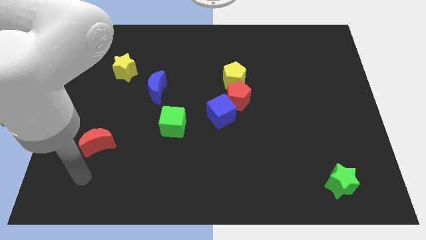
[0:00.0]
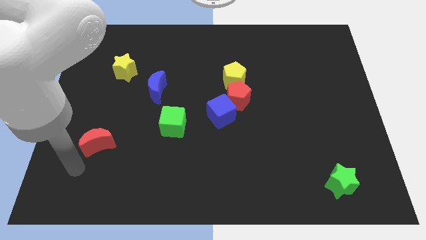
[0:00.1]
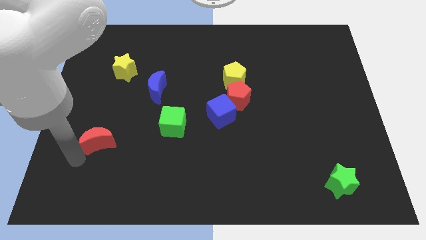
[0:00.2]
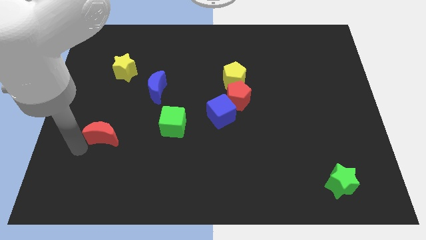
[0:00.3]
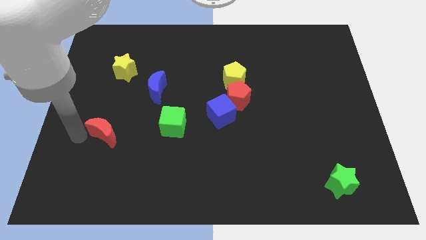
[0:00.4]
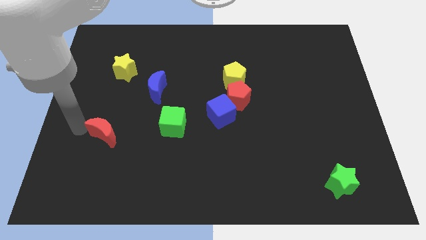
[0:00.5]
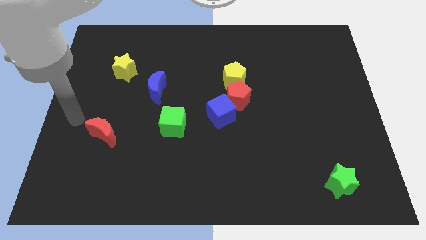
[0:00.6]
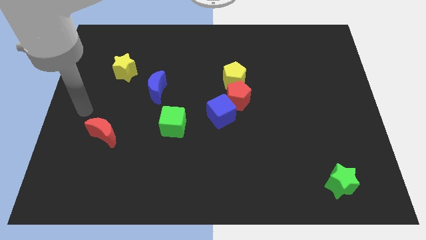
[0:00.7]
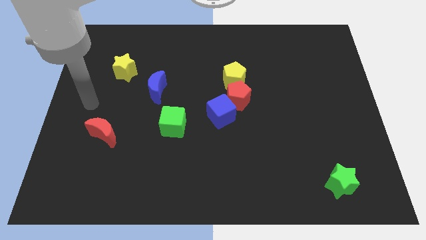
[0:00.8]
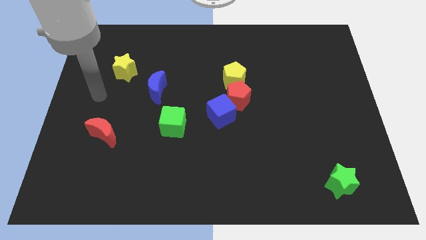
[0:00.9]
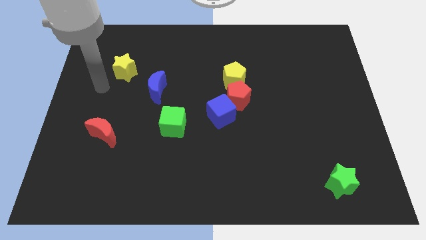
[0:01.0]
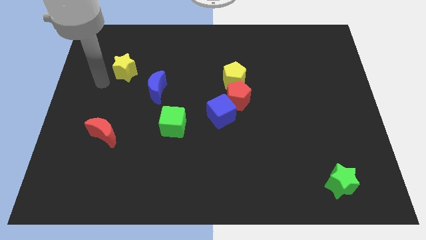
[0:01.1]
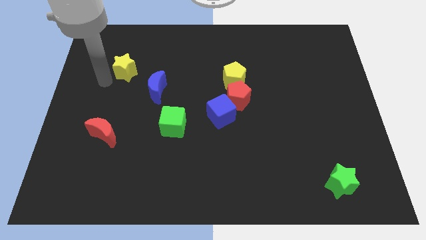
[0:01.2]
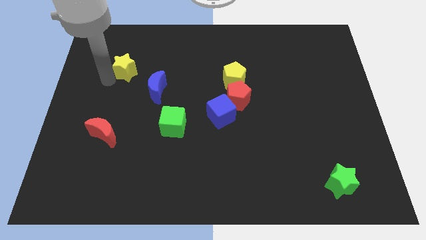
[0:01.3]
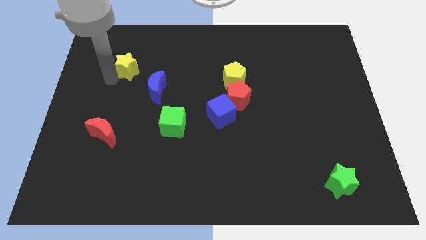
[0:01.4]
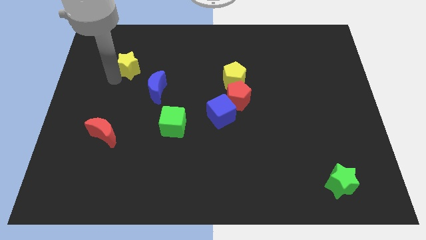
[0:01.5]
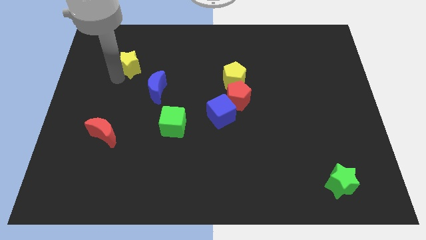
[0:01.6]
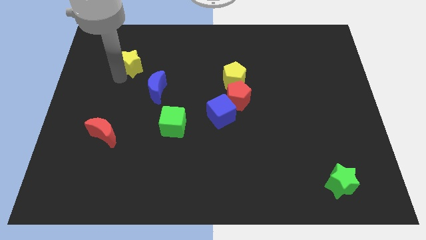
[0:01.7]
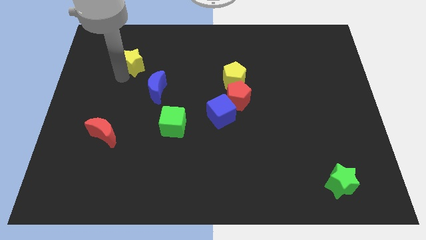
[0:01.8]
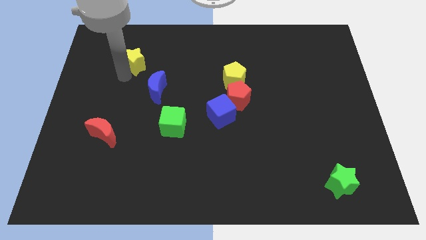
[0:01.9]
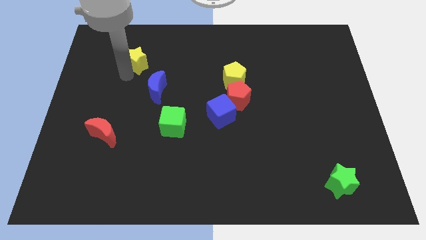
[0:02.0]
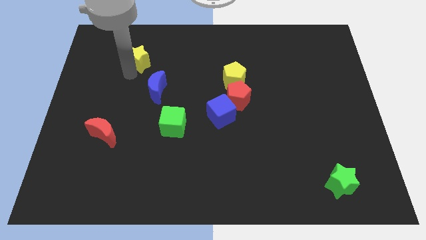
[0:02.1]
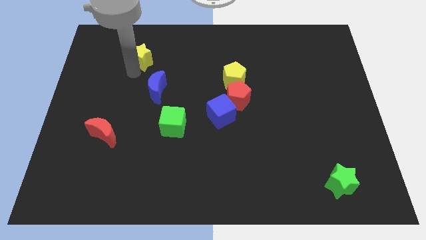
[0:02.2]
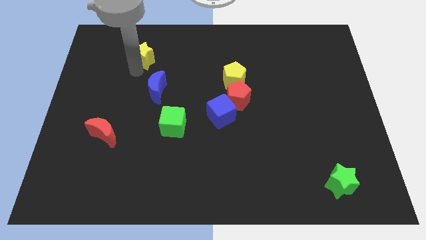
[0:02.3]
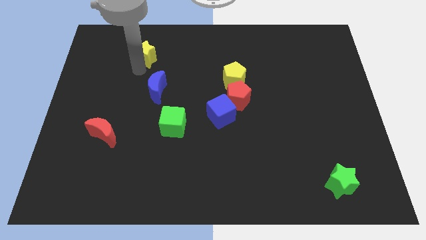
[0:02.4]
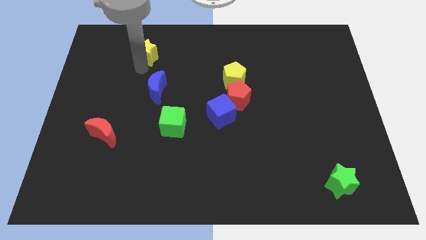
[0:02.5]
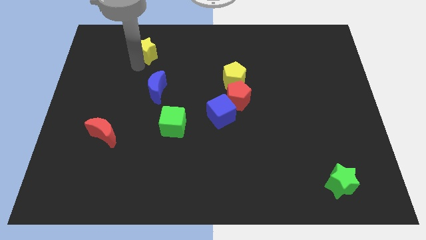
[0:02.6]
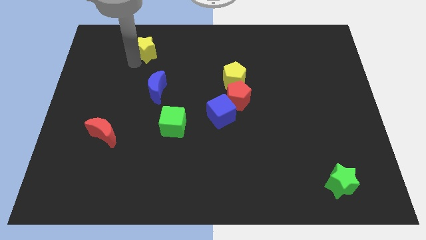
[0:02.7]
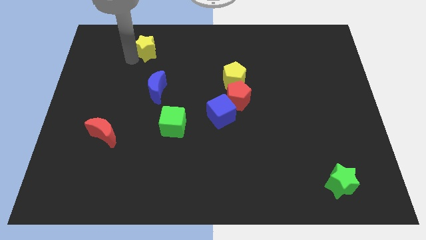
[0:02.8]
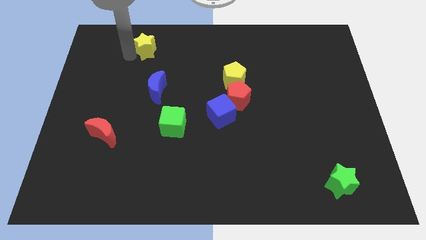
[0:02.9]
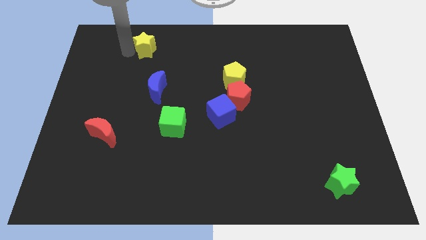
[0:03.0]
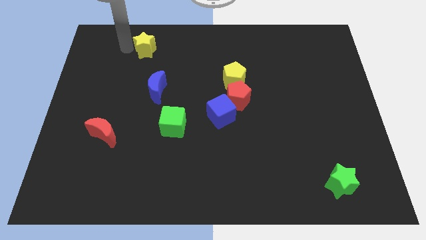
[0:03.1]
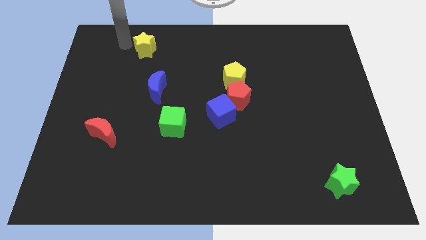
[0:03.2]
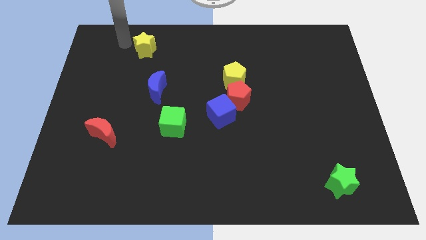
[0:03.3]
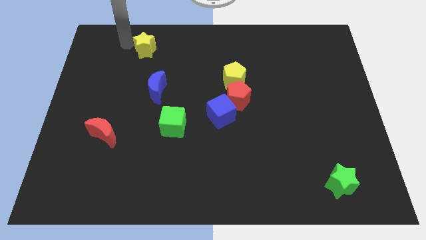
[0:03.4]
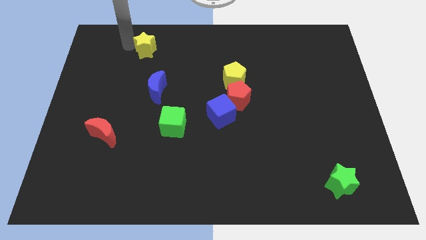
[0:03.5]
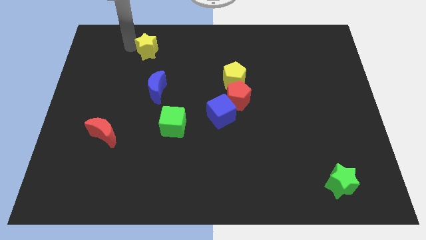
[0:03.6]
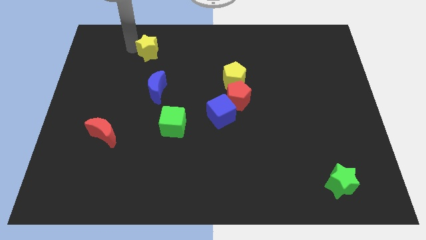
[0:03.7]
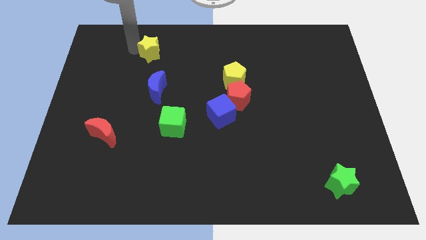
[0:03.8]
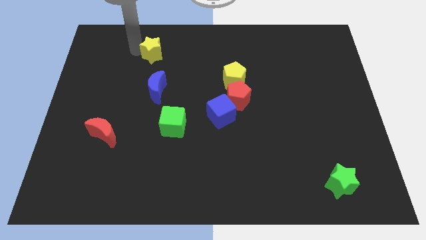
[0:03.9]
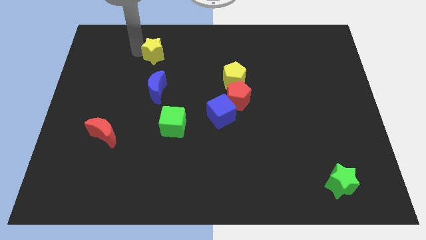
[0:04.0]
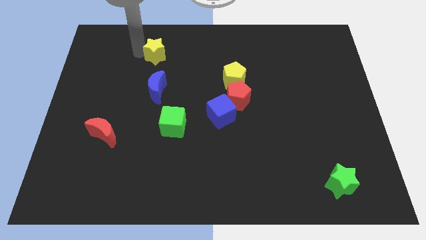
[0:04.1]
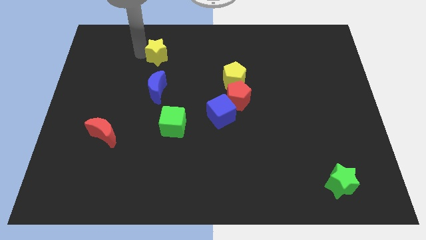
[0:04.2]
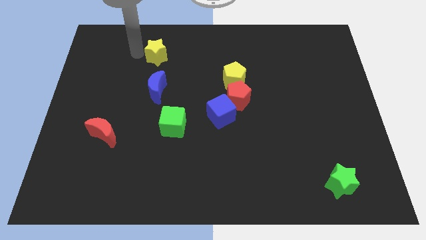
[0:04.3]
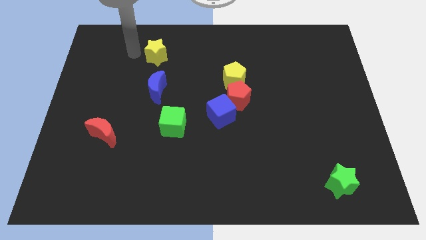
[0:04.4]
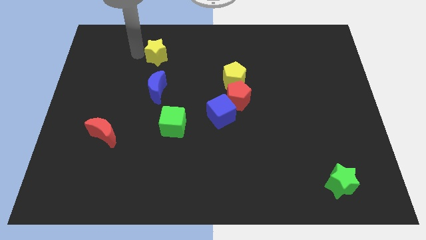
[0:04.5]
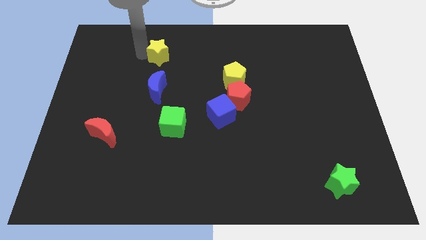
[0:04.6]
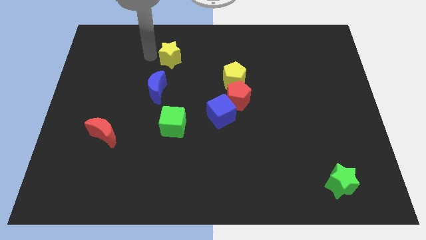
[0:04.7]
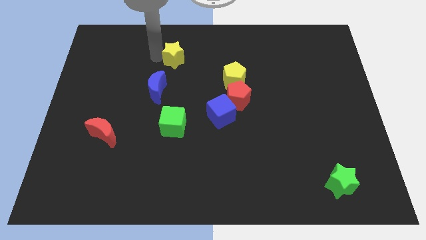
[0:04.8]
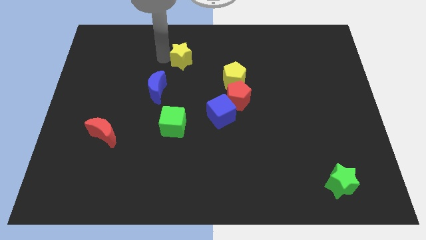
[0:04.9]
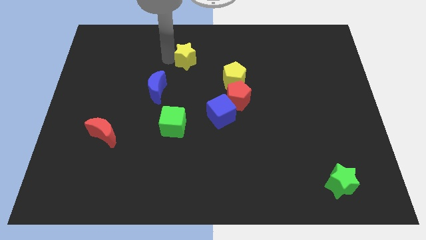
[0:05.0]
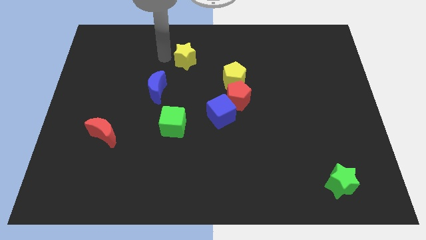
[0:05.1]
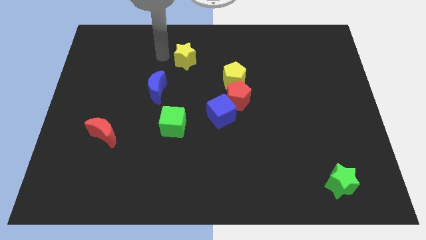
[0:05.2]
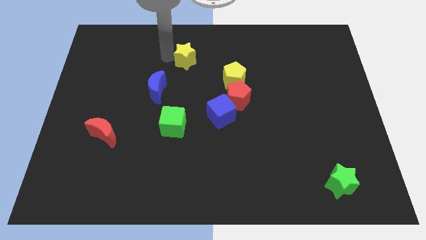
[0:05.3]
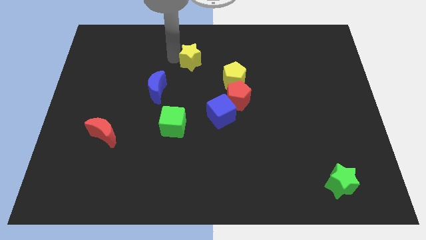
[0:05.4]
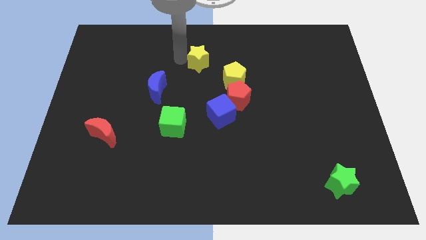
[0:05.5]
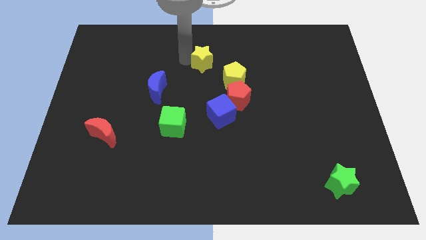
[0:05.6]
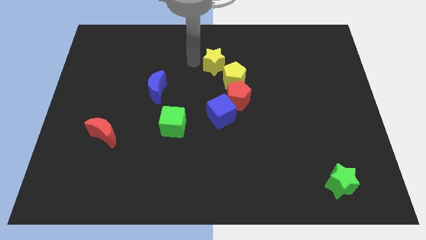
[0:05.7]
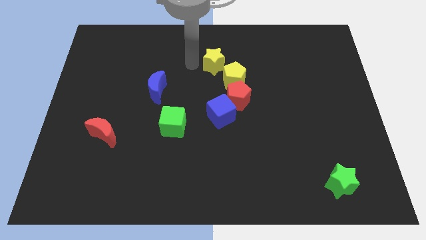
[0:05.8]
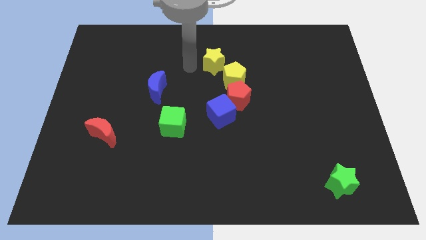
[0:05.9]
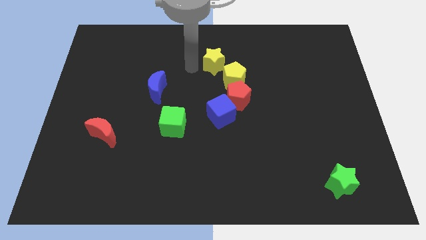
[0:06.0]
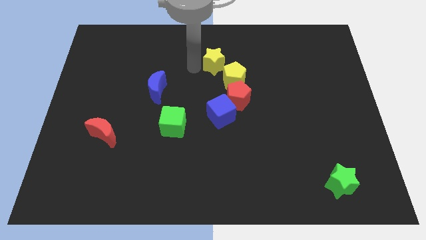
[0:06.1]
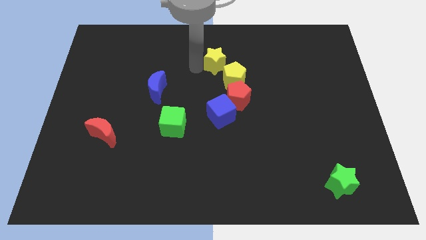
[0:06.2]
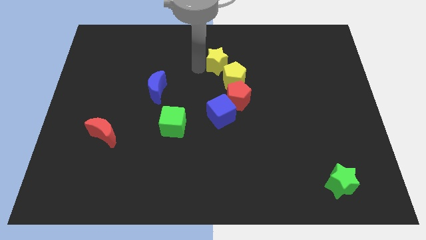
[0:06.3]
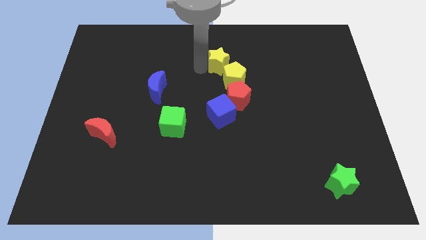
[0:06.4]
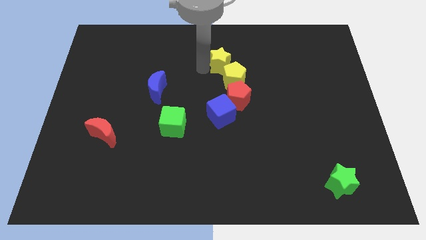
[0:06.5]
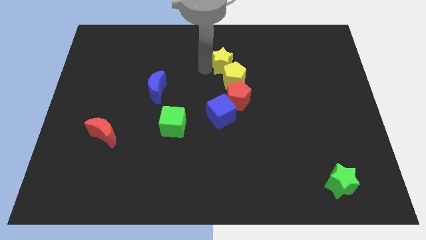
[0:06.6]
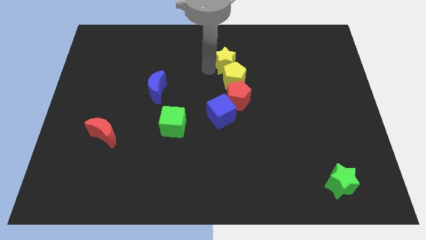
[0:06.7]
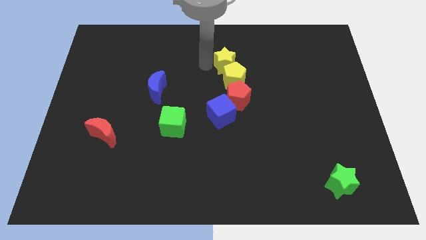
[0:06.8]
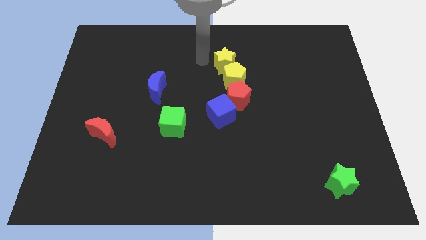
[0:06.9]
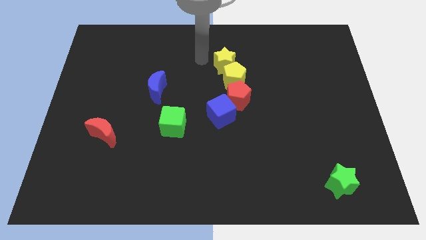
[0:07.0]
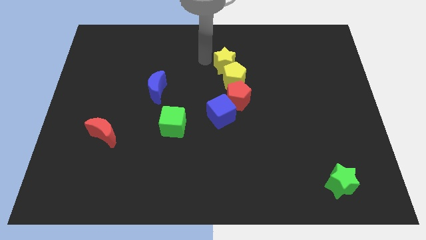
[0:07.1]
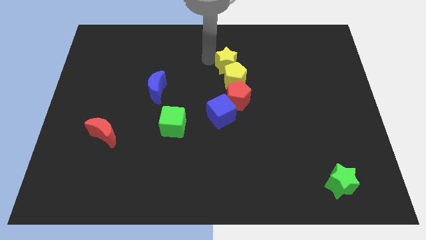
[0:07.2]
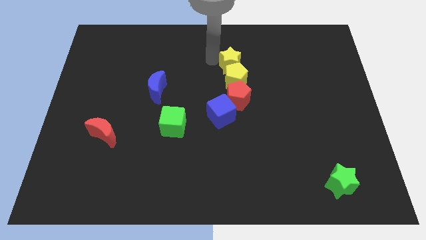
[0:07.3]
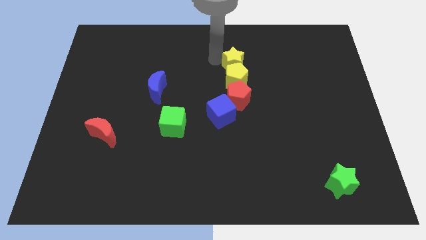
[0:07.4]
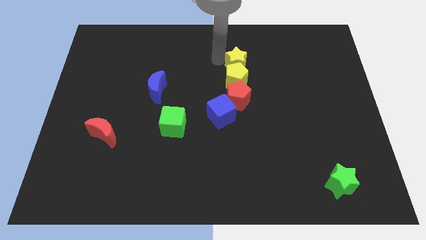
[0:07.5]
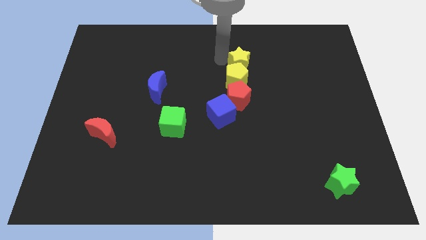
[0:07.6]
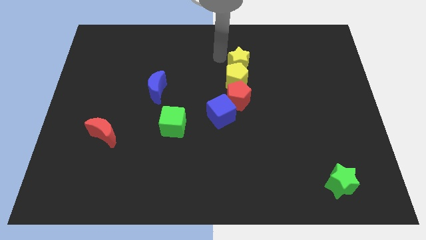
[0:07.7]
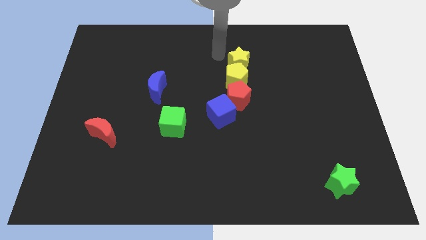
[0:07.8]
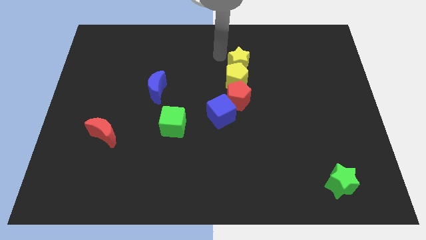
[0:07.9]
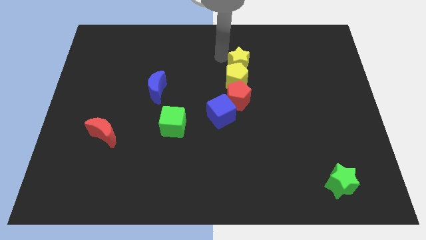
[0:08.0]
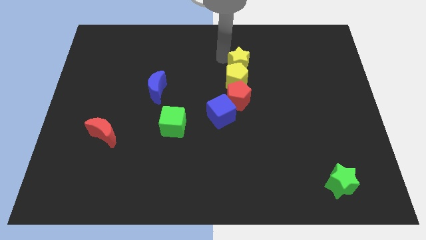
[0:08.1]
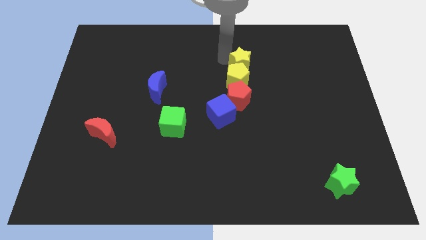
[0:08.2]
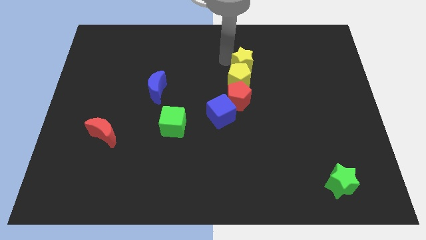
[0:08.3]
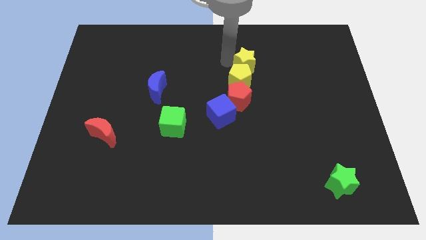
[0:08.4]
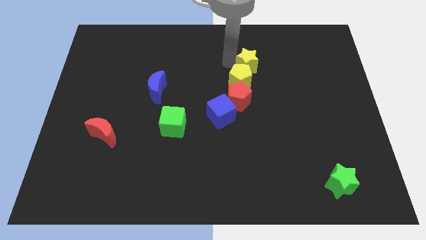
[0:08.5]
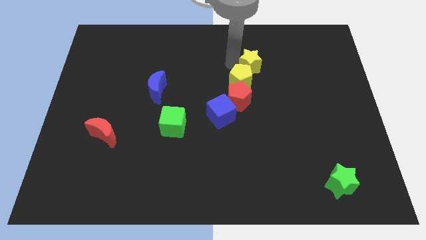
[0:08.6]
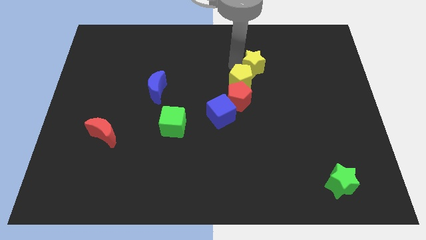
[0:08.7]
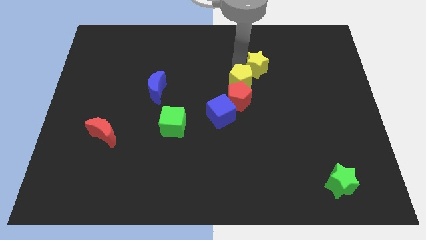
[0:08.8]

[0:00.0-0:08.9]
slide the yellow star to the right of the yellow pentagon
